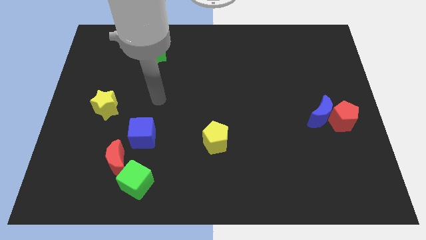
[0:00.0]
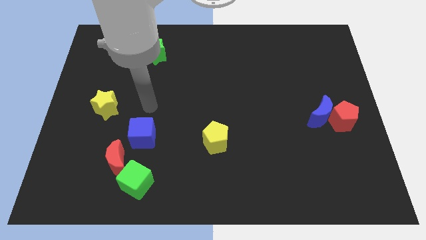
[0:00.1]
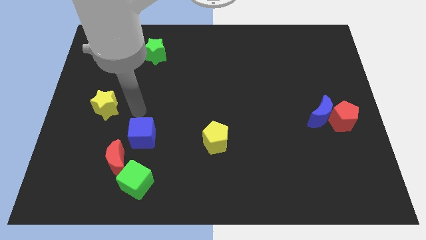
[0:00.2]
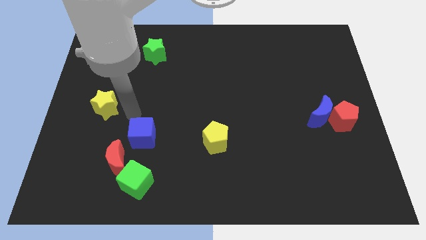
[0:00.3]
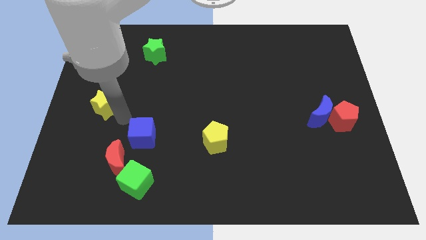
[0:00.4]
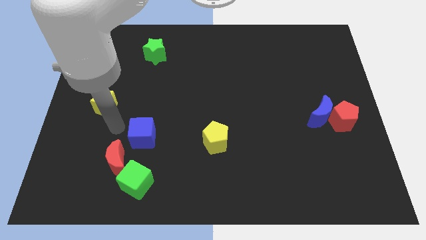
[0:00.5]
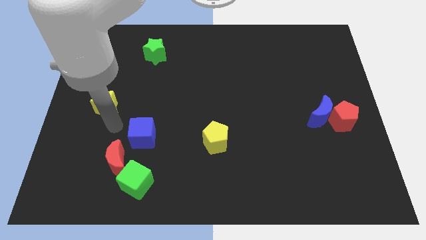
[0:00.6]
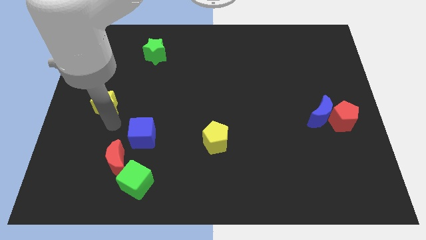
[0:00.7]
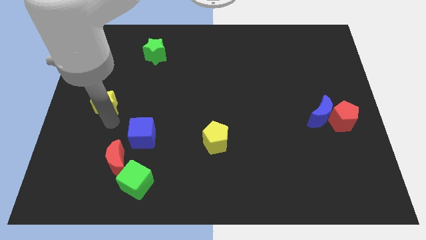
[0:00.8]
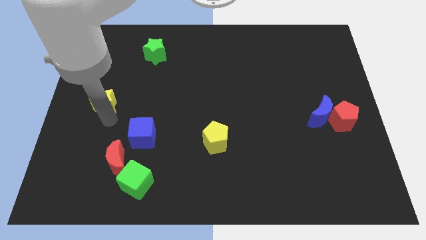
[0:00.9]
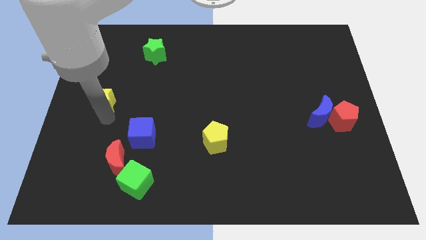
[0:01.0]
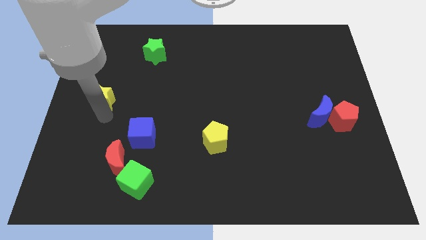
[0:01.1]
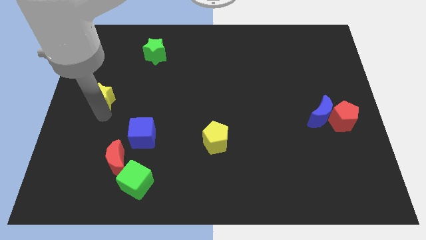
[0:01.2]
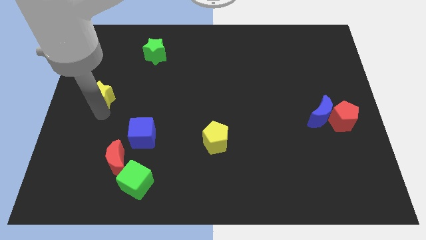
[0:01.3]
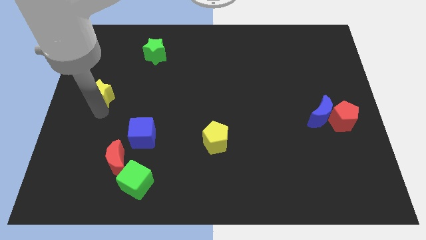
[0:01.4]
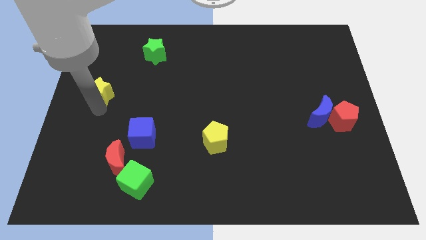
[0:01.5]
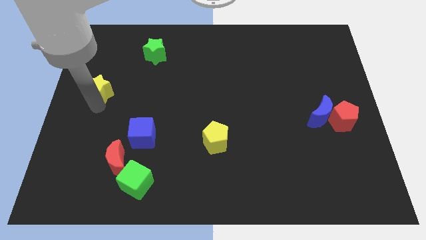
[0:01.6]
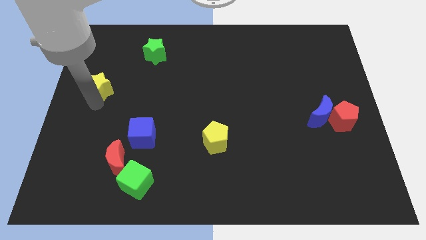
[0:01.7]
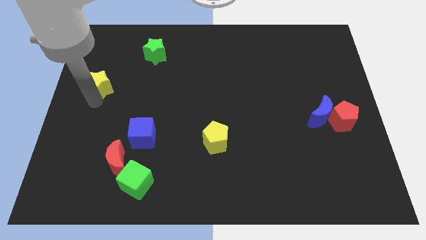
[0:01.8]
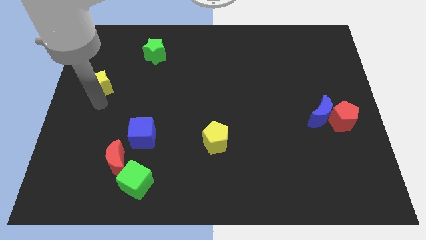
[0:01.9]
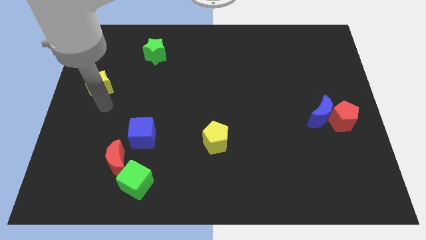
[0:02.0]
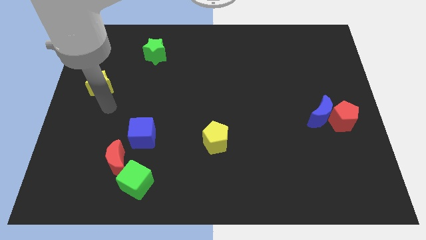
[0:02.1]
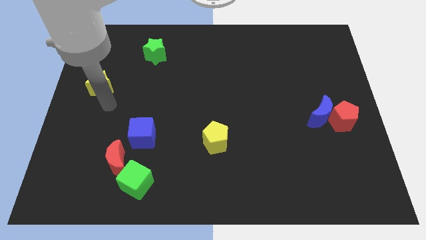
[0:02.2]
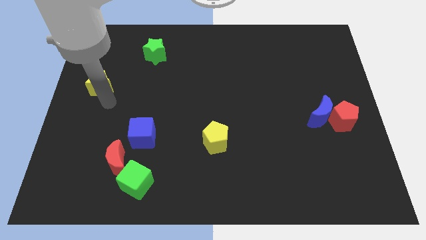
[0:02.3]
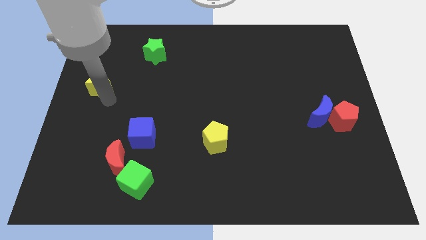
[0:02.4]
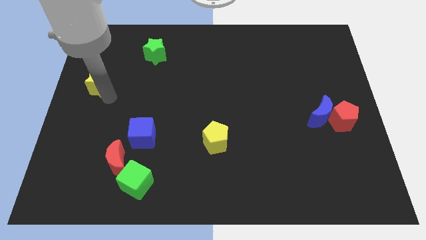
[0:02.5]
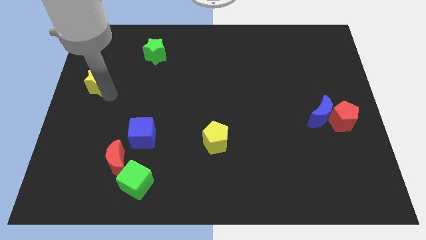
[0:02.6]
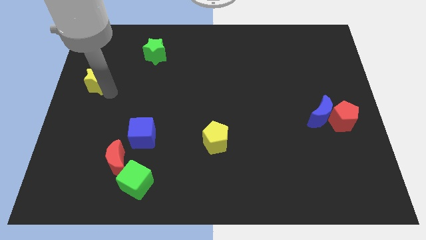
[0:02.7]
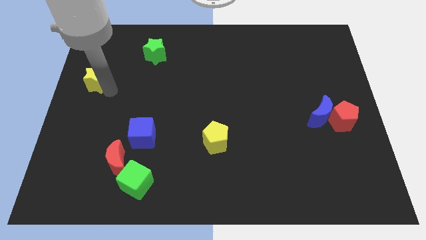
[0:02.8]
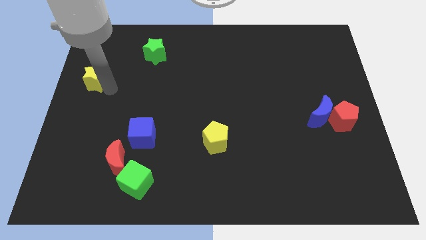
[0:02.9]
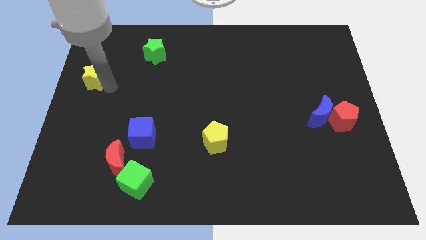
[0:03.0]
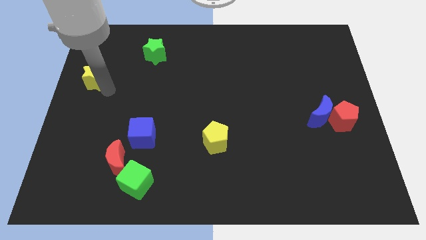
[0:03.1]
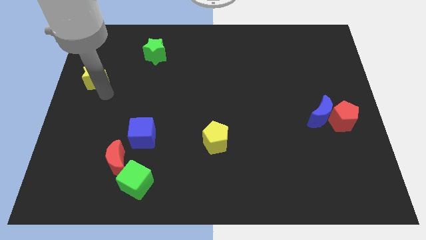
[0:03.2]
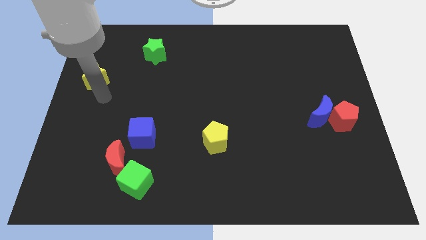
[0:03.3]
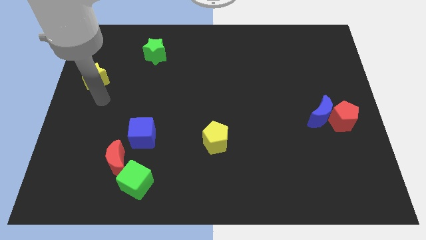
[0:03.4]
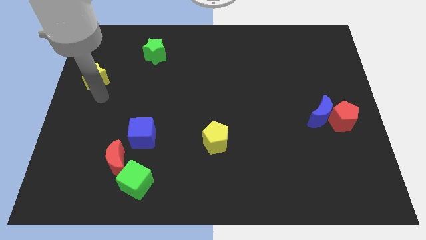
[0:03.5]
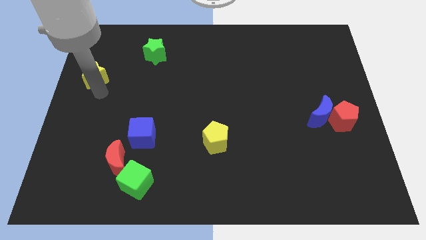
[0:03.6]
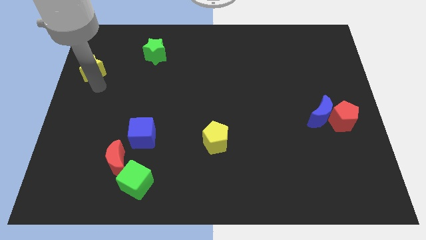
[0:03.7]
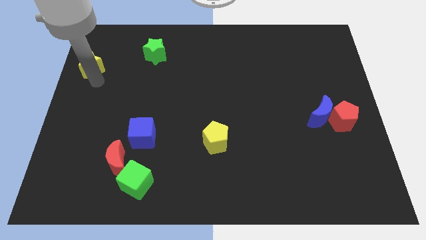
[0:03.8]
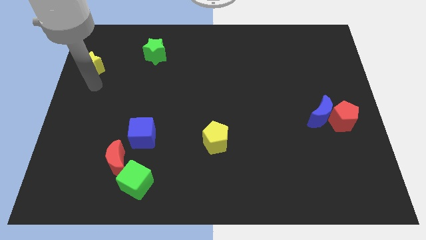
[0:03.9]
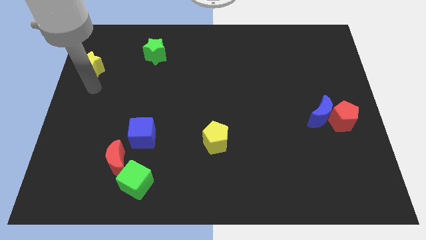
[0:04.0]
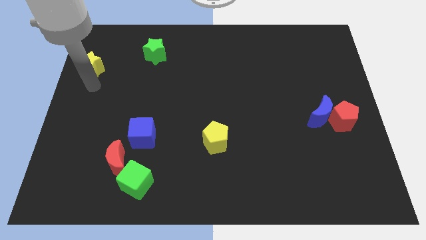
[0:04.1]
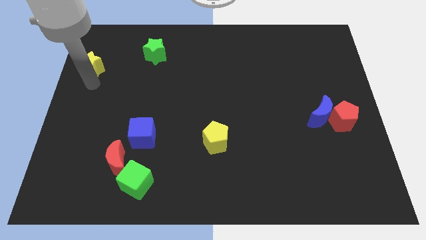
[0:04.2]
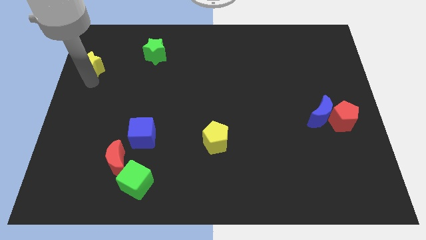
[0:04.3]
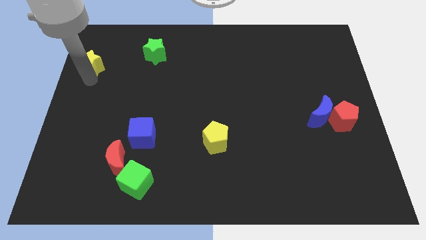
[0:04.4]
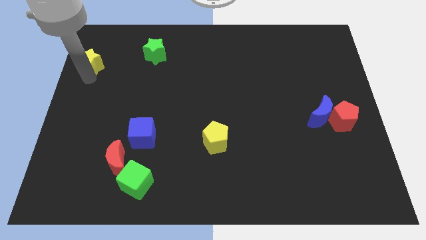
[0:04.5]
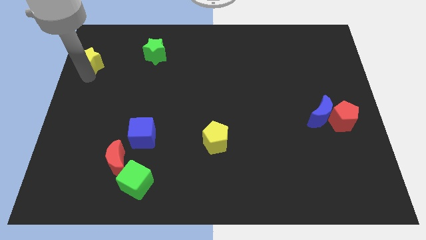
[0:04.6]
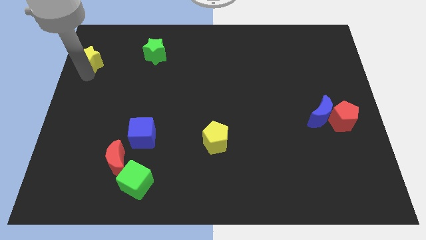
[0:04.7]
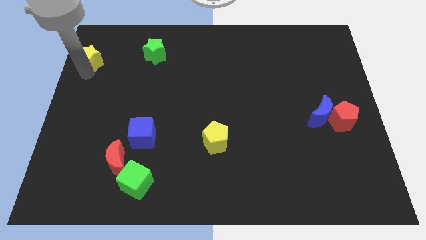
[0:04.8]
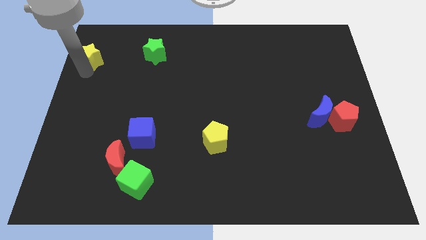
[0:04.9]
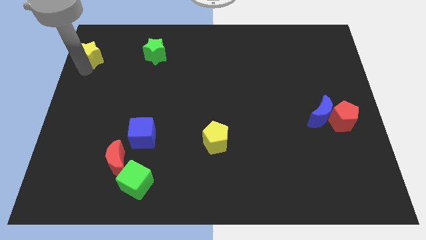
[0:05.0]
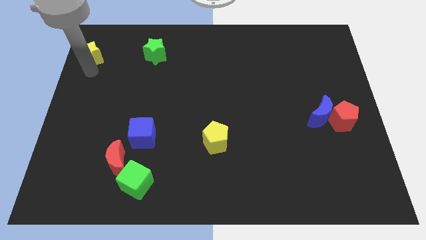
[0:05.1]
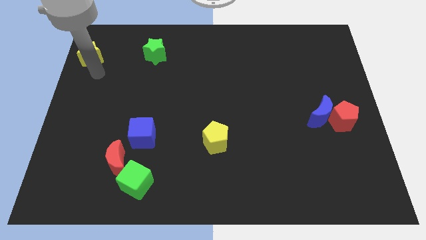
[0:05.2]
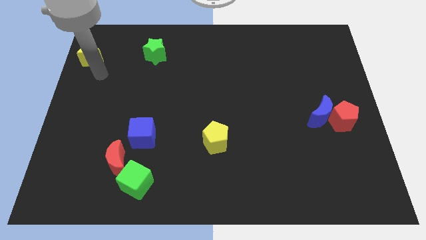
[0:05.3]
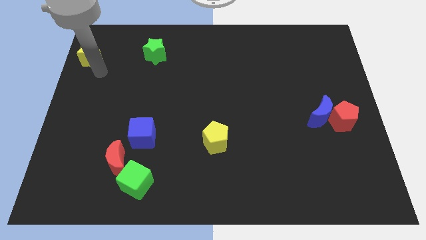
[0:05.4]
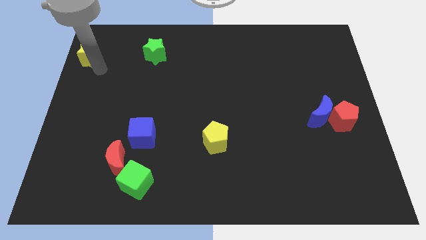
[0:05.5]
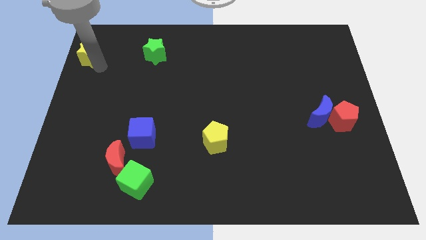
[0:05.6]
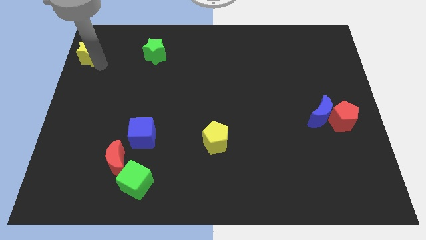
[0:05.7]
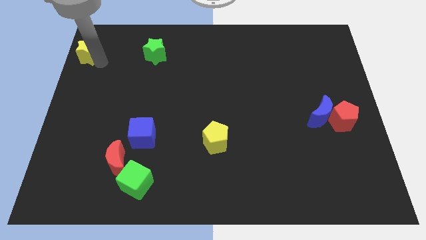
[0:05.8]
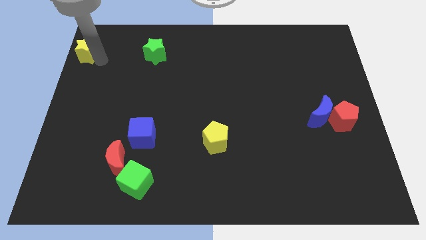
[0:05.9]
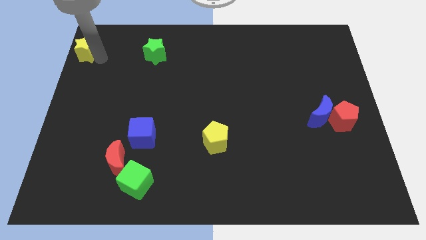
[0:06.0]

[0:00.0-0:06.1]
push the yellow star to the upper left corner
